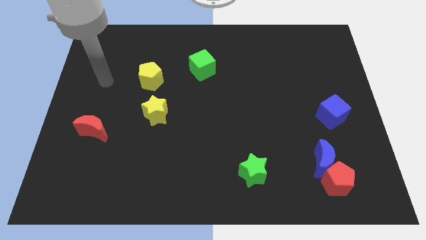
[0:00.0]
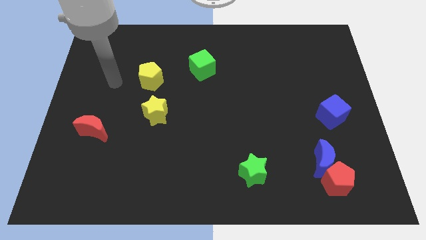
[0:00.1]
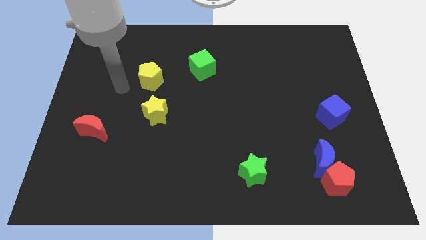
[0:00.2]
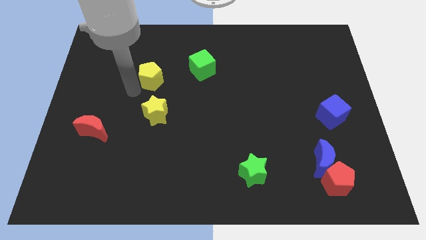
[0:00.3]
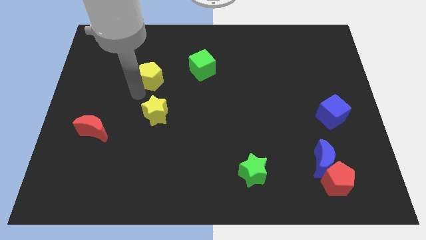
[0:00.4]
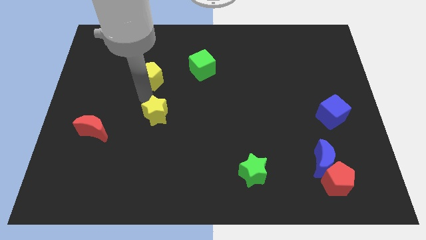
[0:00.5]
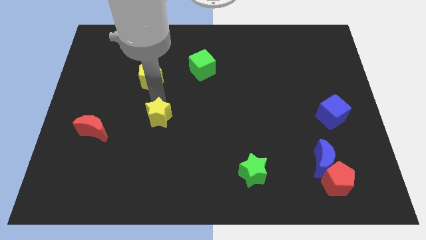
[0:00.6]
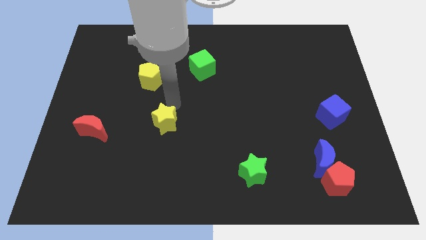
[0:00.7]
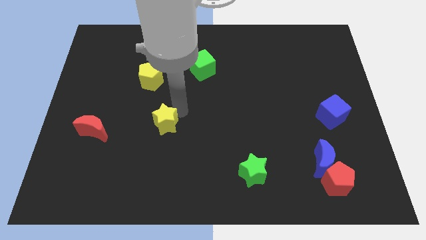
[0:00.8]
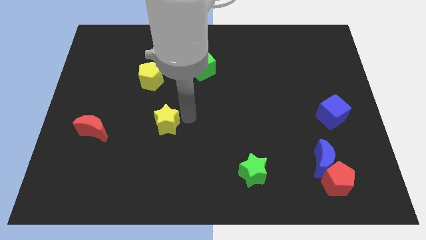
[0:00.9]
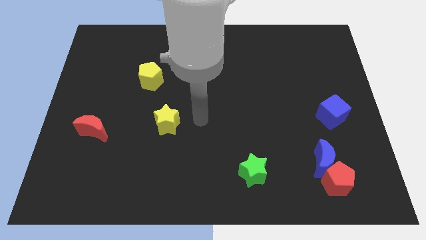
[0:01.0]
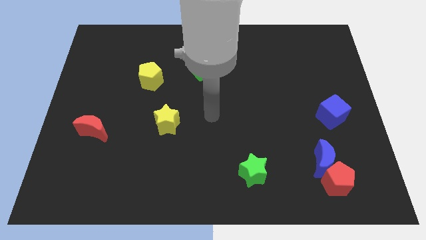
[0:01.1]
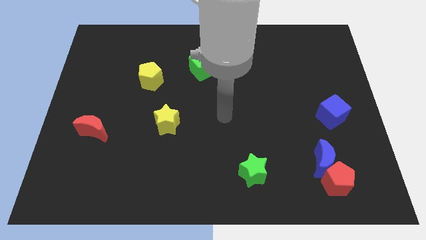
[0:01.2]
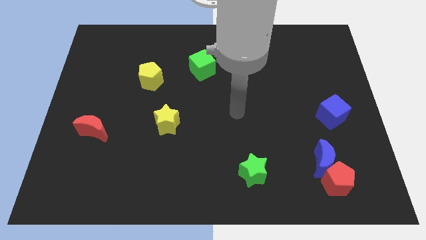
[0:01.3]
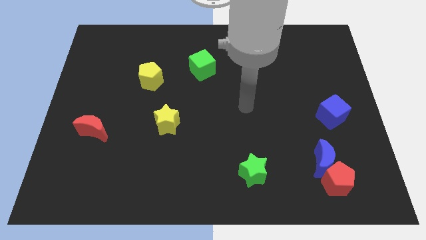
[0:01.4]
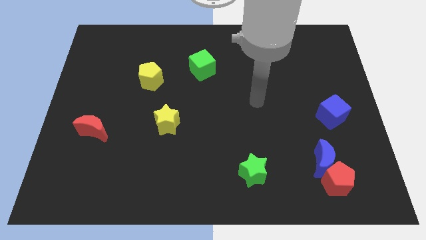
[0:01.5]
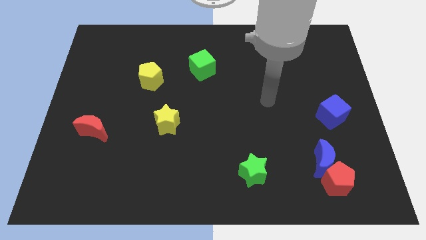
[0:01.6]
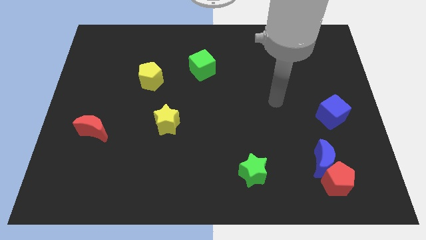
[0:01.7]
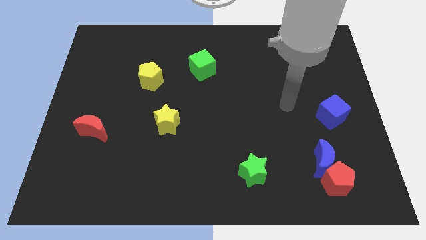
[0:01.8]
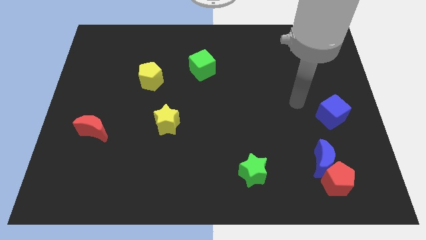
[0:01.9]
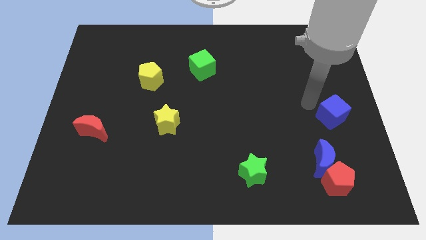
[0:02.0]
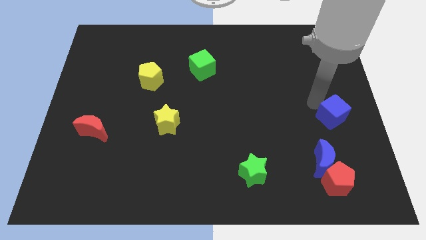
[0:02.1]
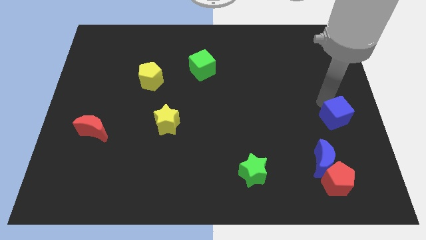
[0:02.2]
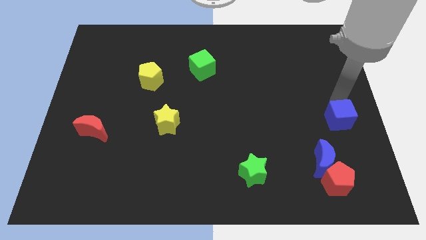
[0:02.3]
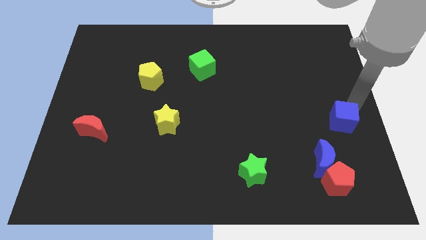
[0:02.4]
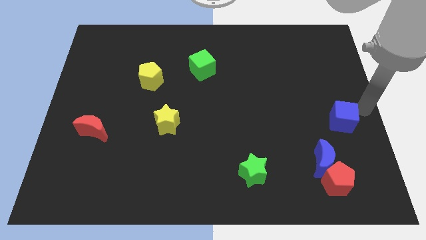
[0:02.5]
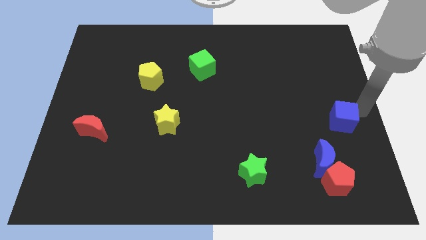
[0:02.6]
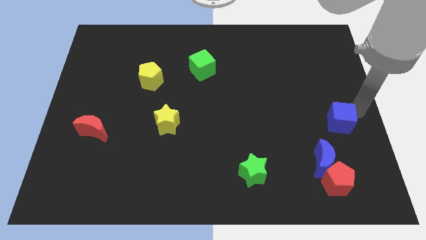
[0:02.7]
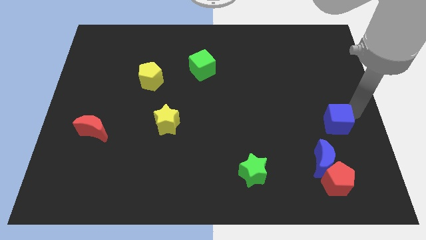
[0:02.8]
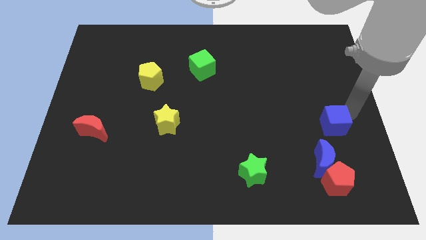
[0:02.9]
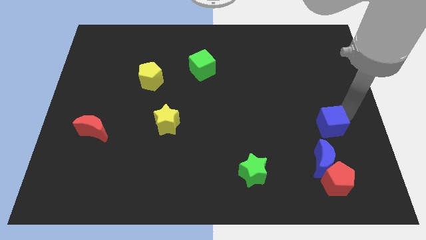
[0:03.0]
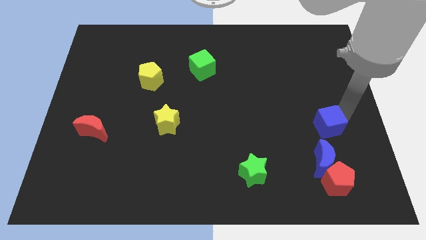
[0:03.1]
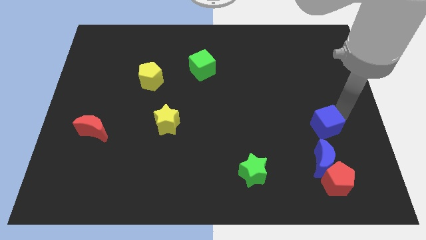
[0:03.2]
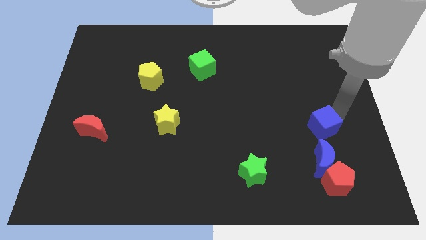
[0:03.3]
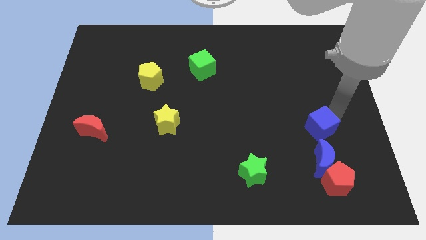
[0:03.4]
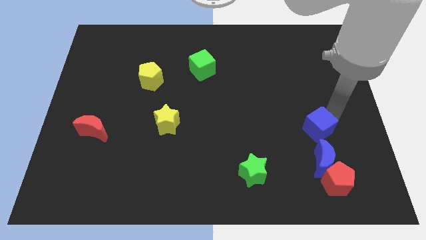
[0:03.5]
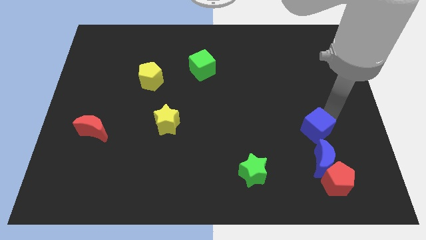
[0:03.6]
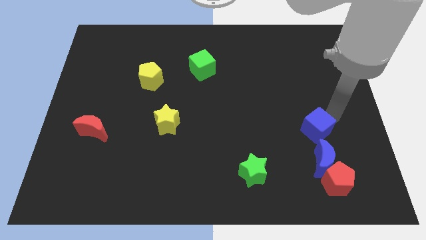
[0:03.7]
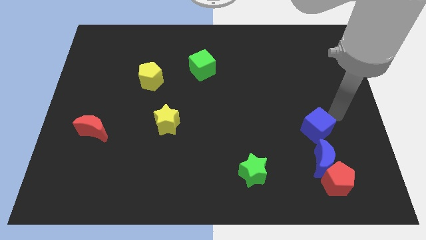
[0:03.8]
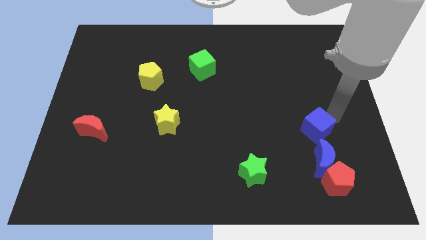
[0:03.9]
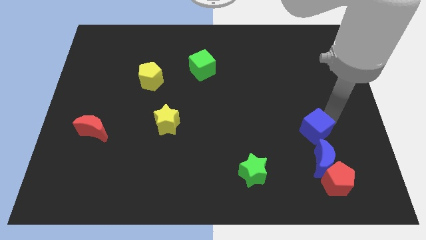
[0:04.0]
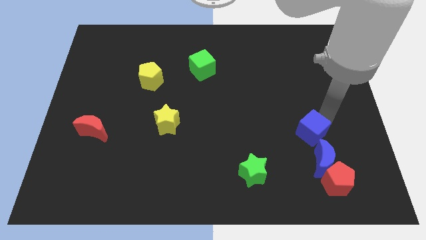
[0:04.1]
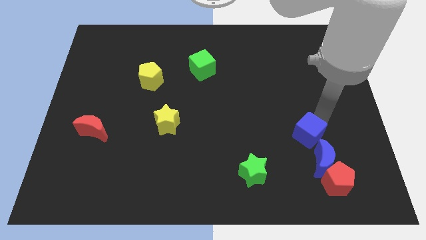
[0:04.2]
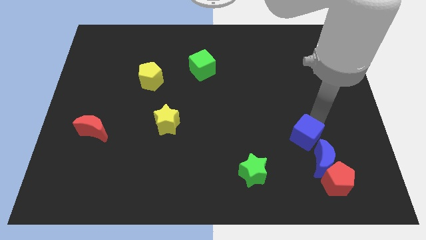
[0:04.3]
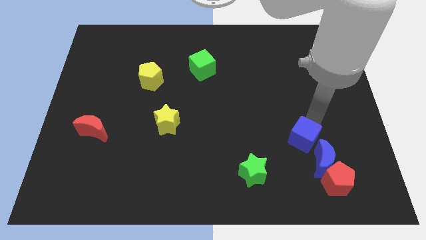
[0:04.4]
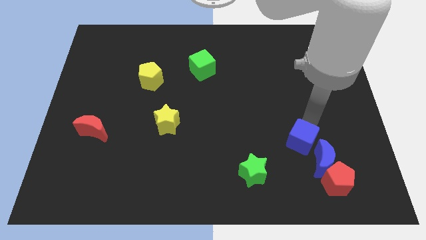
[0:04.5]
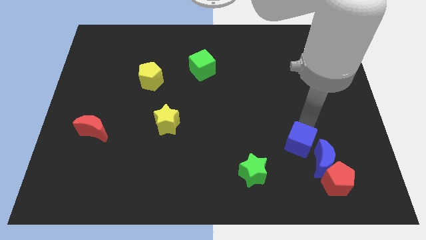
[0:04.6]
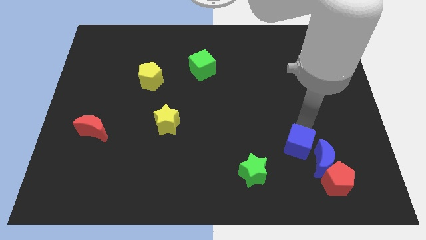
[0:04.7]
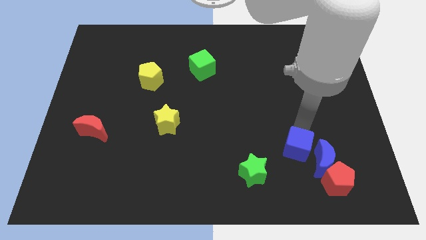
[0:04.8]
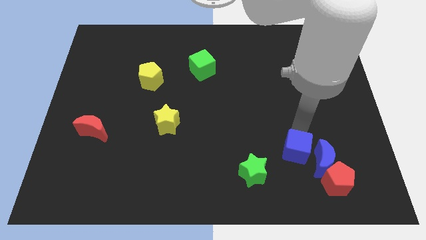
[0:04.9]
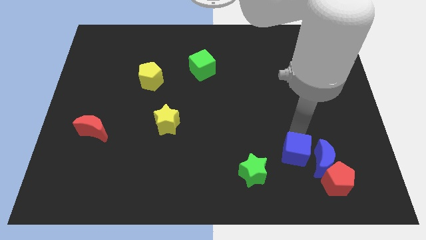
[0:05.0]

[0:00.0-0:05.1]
move the blue cube to the right of the green star

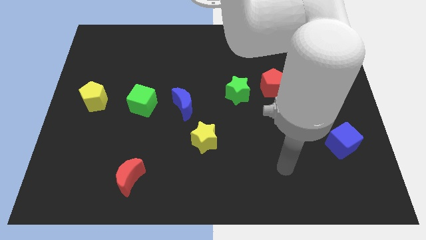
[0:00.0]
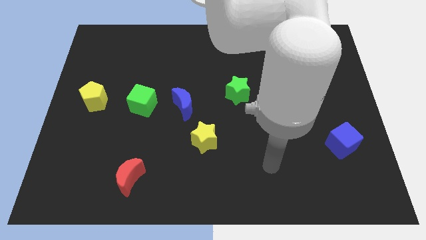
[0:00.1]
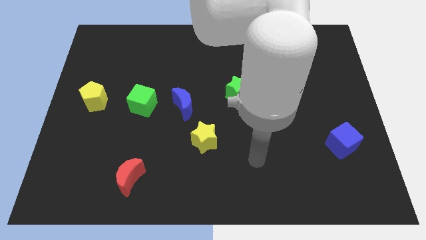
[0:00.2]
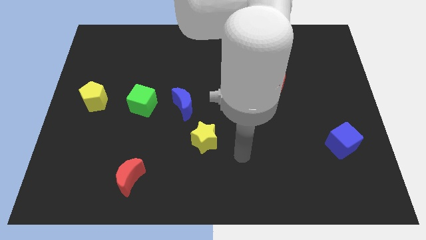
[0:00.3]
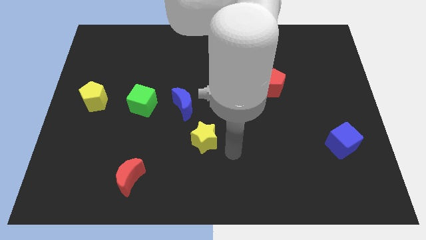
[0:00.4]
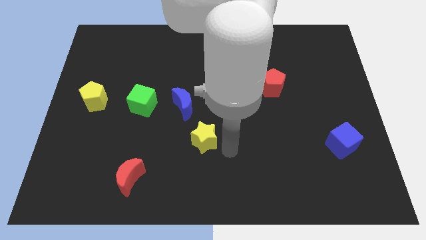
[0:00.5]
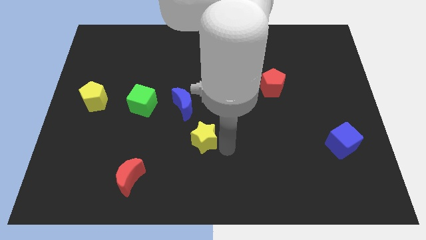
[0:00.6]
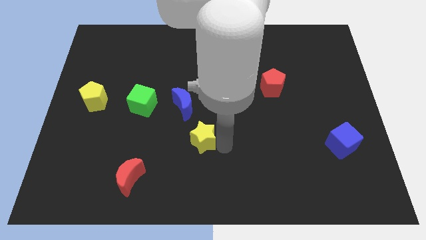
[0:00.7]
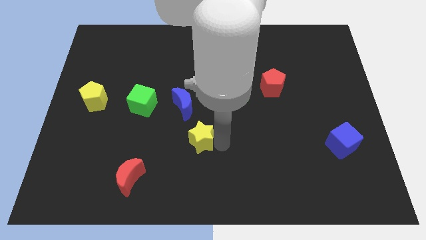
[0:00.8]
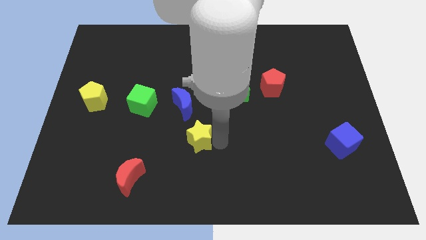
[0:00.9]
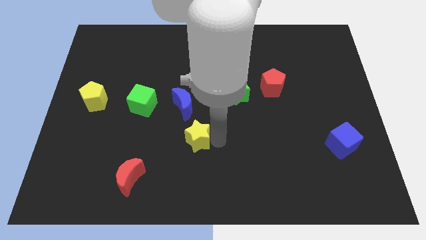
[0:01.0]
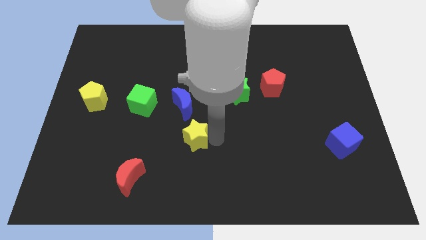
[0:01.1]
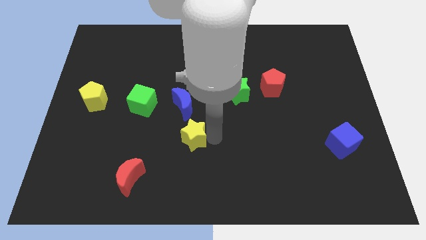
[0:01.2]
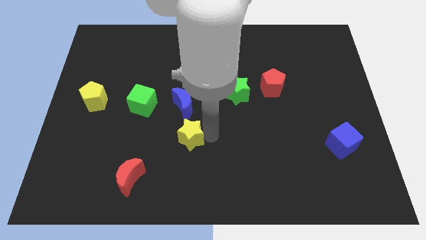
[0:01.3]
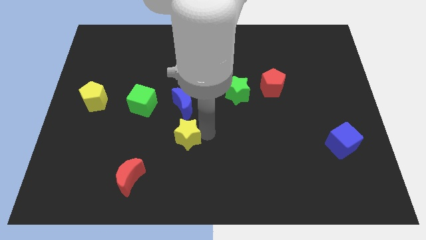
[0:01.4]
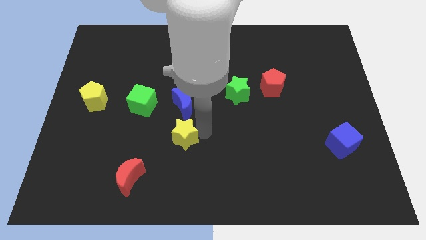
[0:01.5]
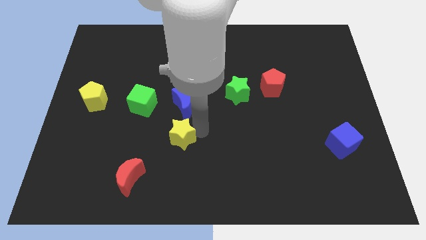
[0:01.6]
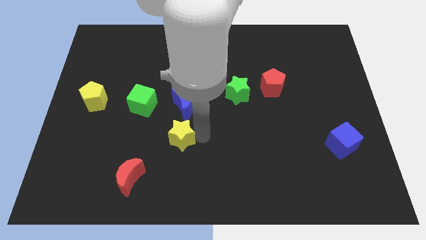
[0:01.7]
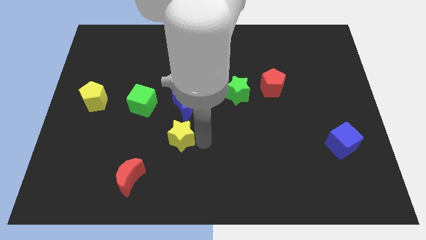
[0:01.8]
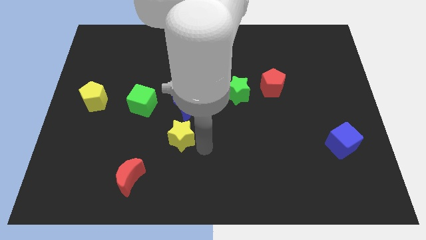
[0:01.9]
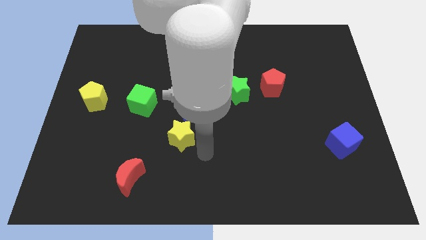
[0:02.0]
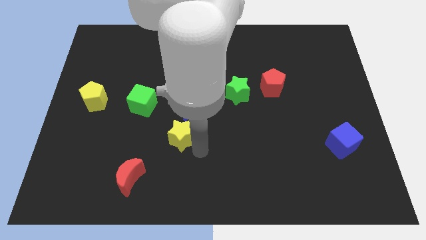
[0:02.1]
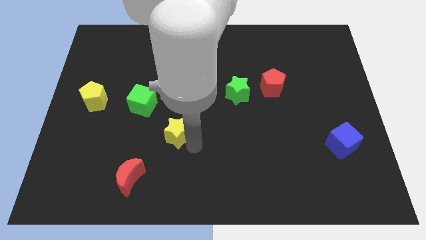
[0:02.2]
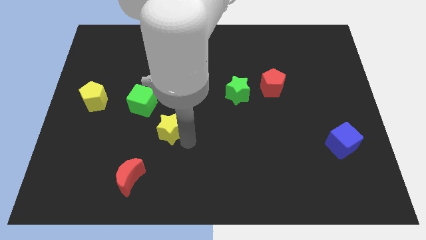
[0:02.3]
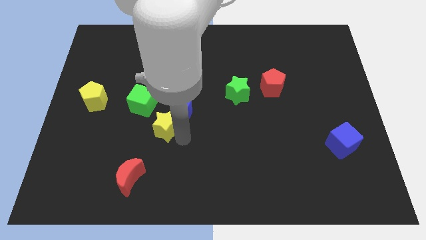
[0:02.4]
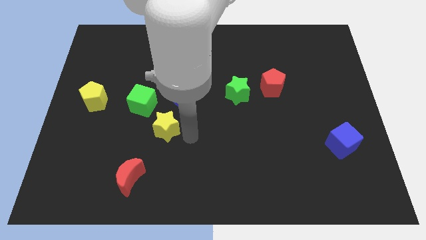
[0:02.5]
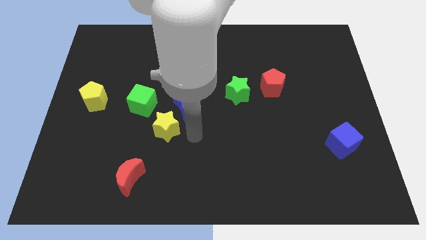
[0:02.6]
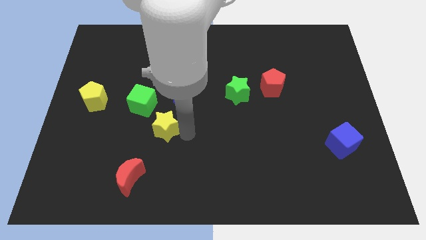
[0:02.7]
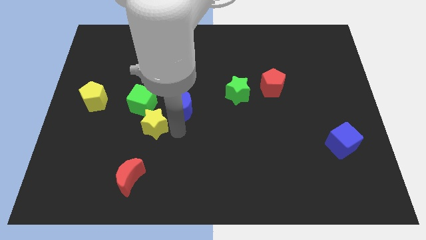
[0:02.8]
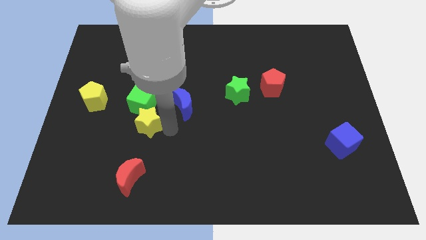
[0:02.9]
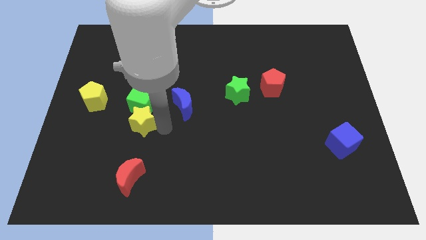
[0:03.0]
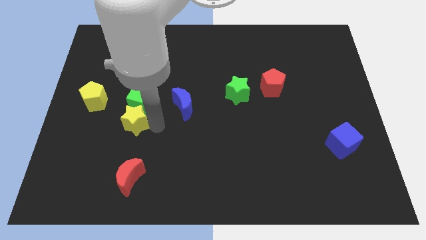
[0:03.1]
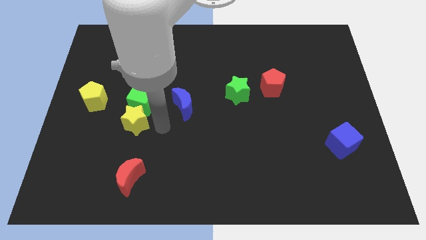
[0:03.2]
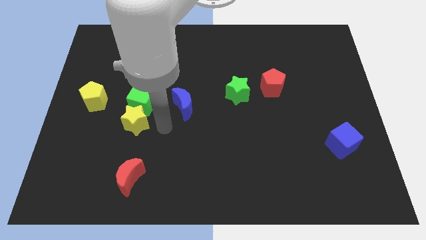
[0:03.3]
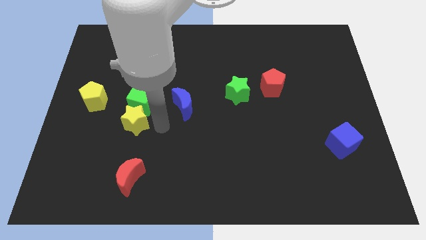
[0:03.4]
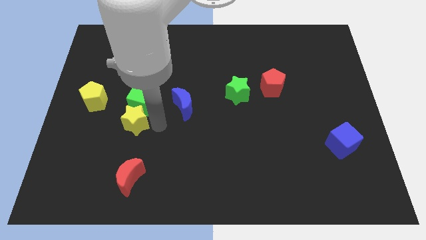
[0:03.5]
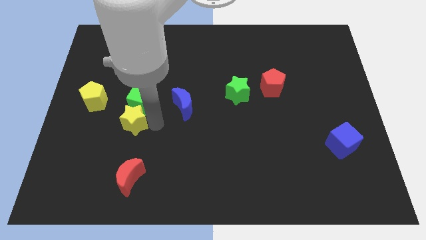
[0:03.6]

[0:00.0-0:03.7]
move the yellow star diagonally down and to the right of the yellow pentagon
